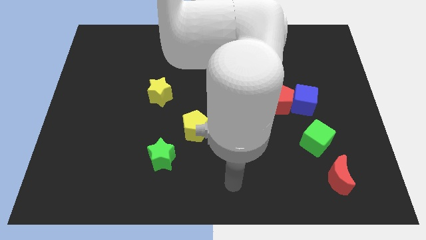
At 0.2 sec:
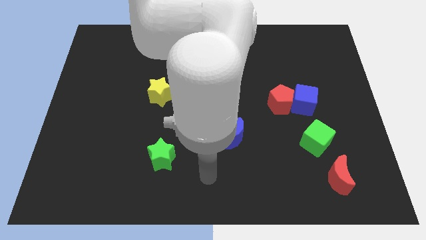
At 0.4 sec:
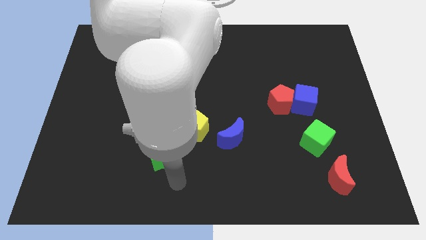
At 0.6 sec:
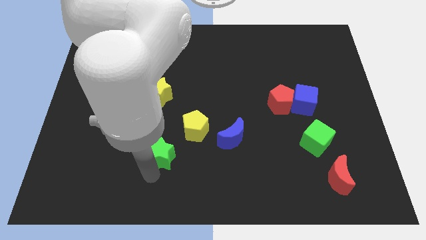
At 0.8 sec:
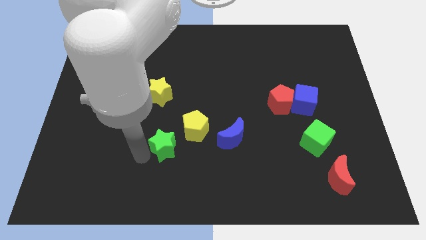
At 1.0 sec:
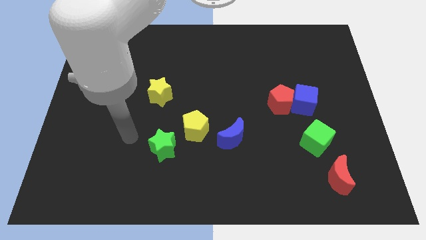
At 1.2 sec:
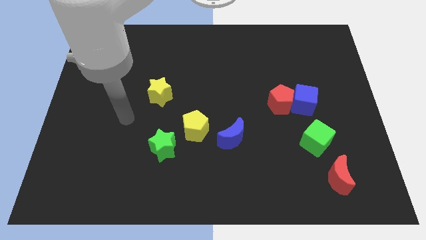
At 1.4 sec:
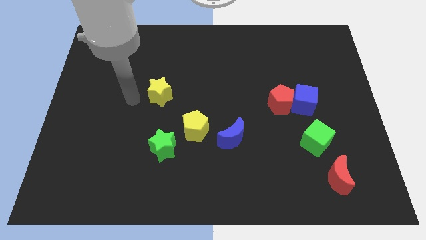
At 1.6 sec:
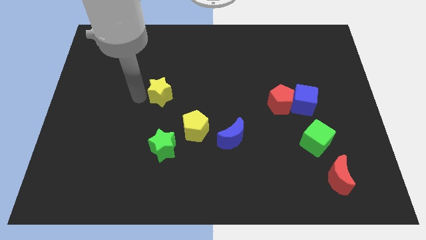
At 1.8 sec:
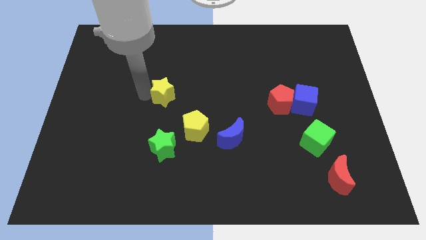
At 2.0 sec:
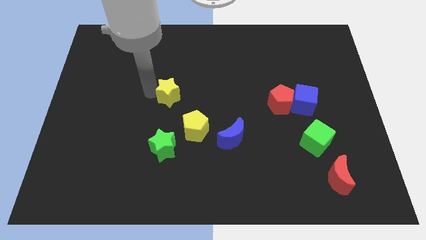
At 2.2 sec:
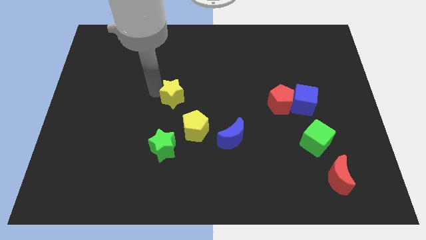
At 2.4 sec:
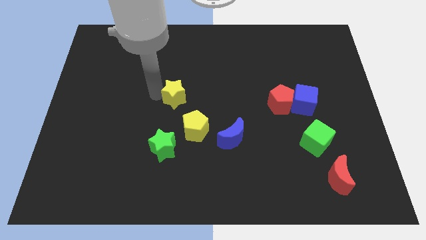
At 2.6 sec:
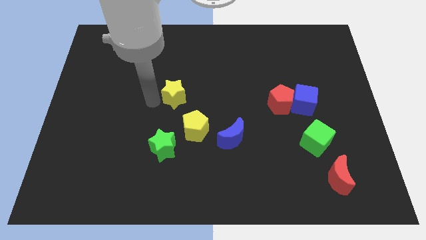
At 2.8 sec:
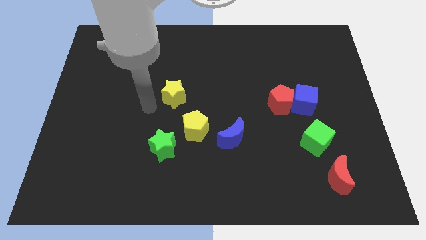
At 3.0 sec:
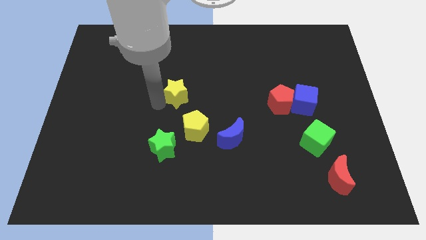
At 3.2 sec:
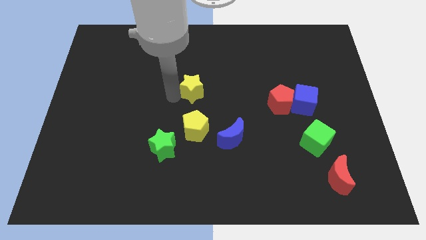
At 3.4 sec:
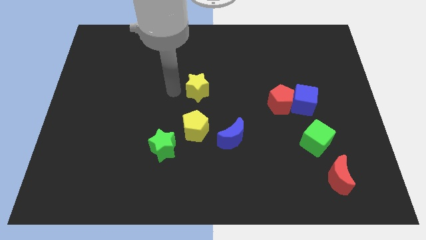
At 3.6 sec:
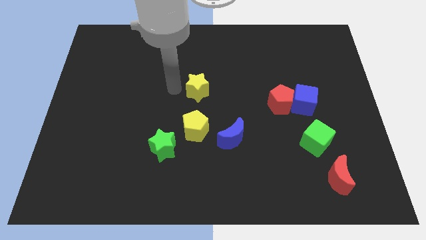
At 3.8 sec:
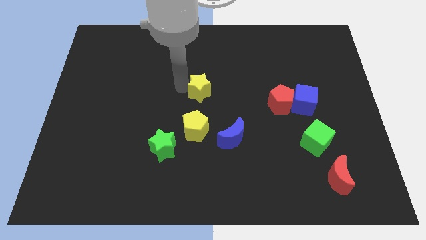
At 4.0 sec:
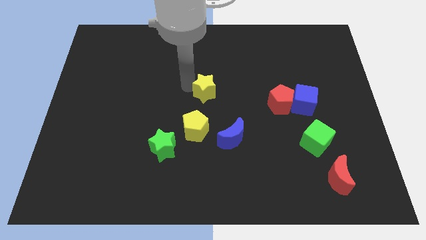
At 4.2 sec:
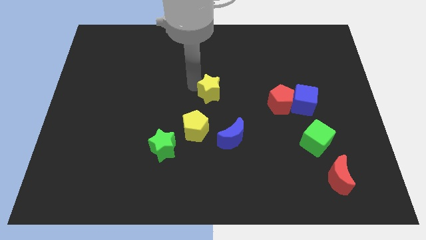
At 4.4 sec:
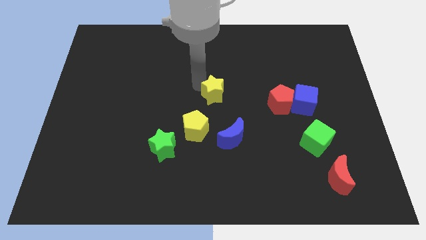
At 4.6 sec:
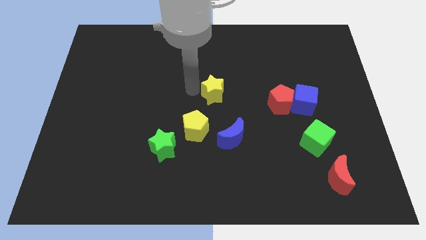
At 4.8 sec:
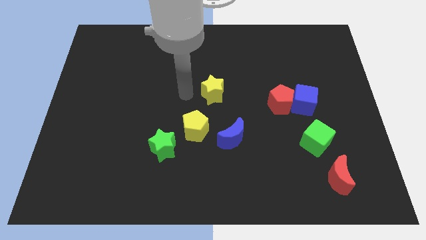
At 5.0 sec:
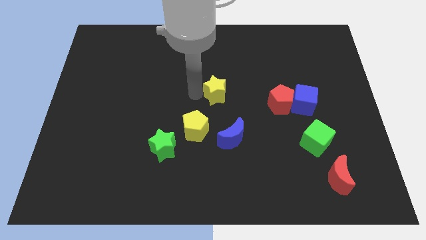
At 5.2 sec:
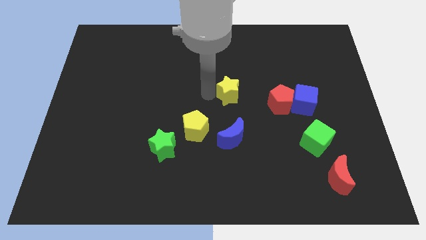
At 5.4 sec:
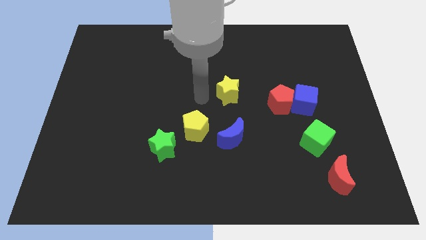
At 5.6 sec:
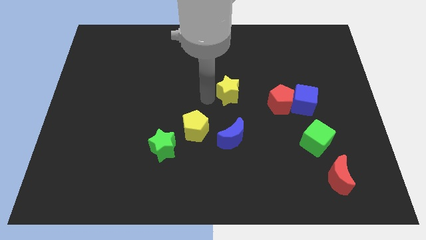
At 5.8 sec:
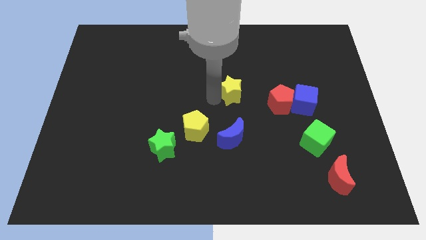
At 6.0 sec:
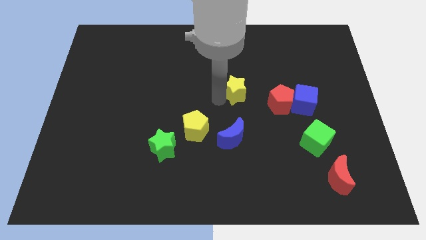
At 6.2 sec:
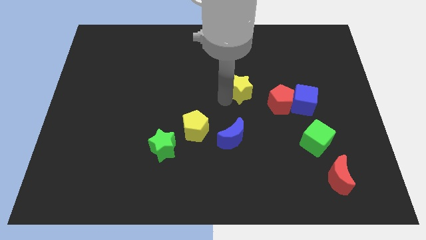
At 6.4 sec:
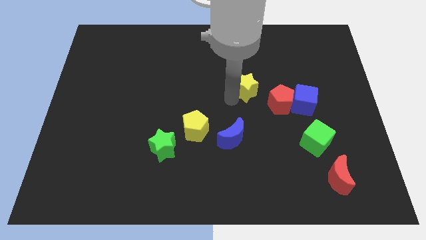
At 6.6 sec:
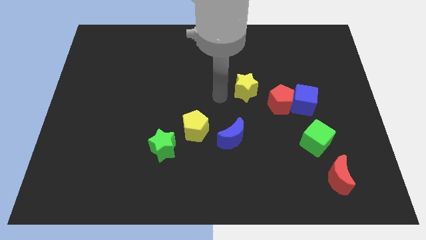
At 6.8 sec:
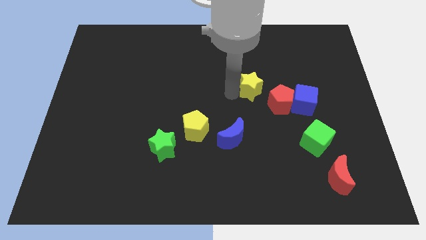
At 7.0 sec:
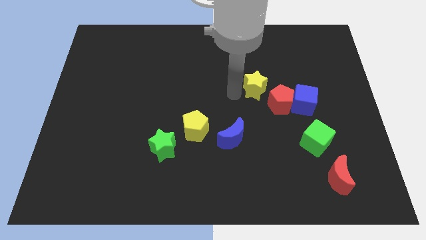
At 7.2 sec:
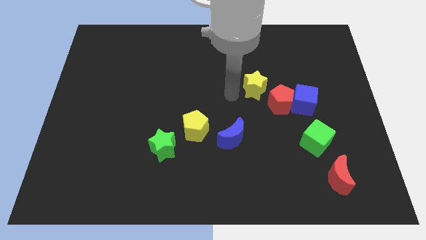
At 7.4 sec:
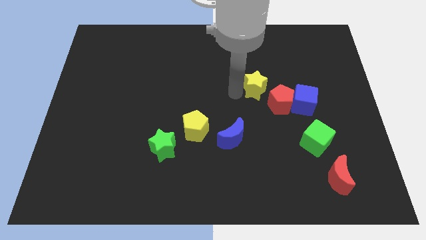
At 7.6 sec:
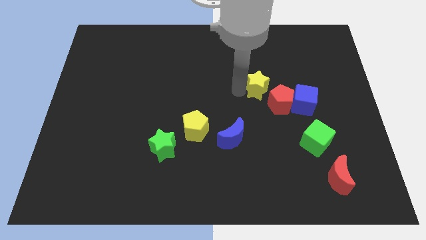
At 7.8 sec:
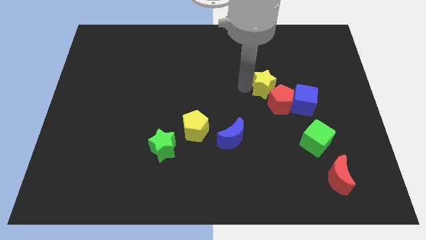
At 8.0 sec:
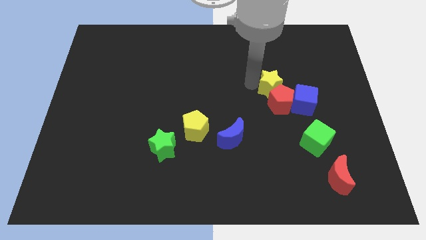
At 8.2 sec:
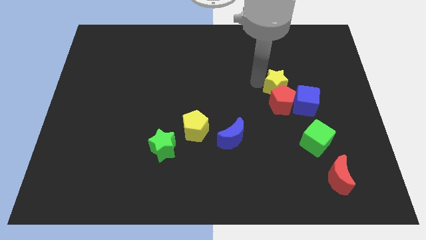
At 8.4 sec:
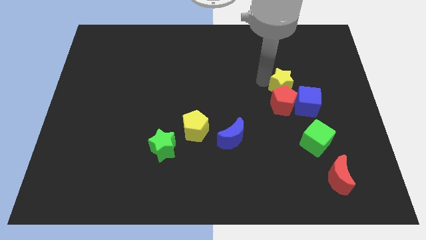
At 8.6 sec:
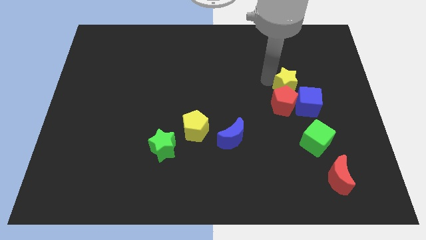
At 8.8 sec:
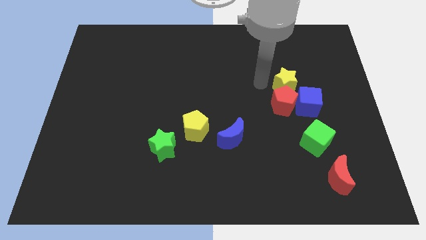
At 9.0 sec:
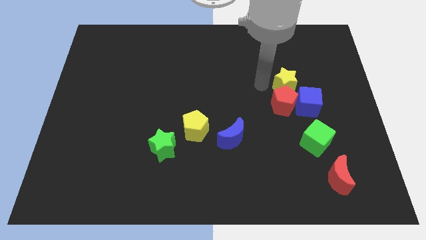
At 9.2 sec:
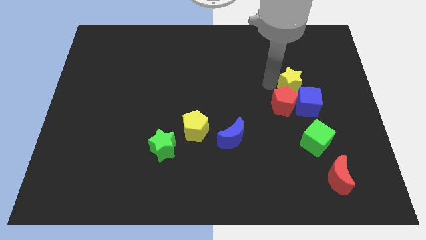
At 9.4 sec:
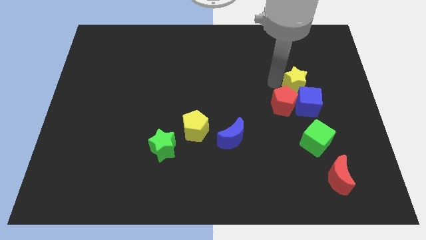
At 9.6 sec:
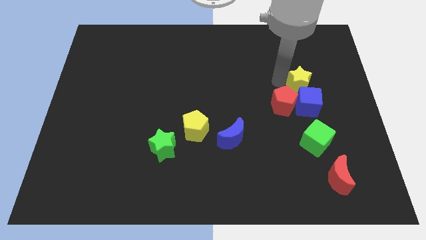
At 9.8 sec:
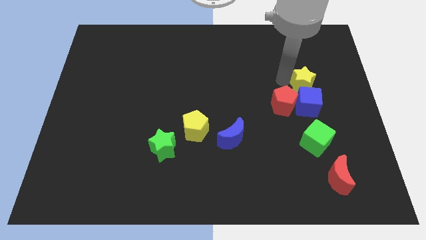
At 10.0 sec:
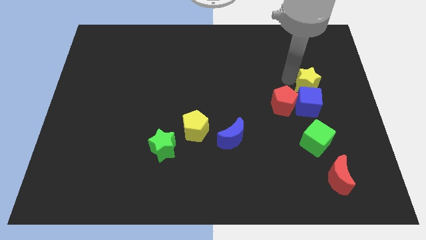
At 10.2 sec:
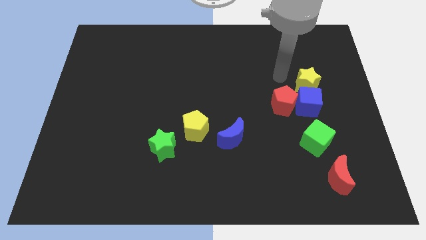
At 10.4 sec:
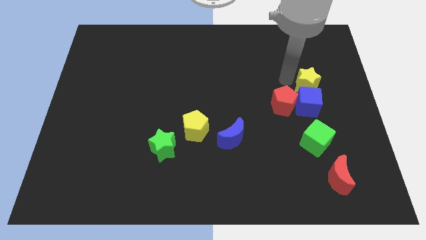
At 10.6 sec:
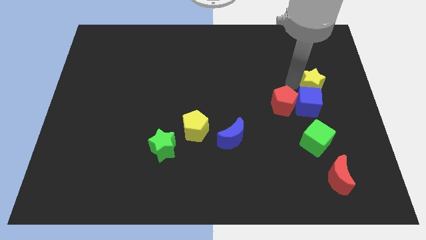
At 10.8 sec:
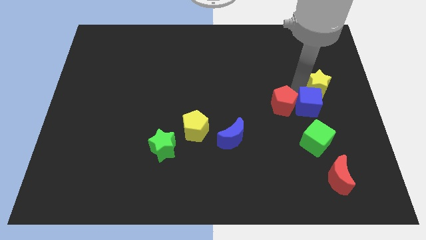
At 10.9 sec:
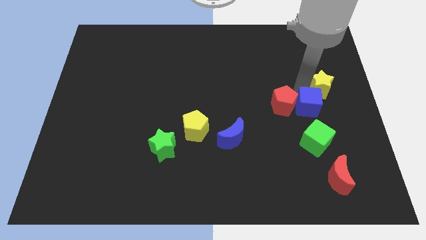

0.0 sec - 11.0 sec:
slide the yellow star to the center right

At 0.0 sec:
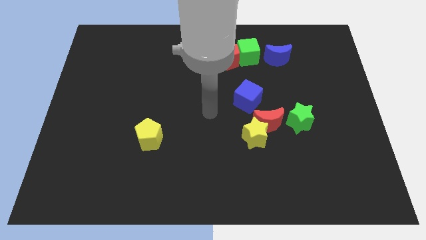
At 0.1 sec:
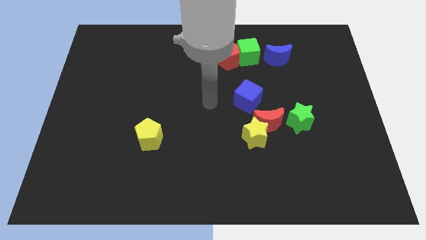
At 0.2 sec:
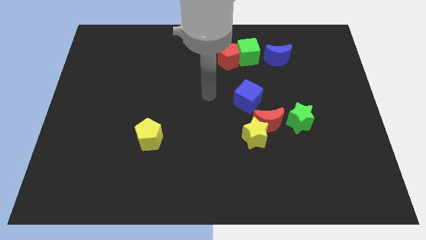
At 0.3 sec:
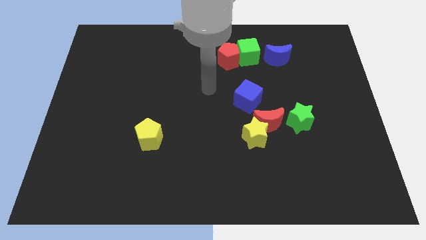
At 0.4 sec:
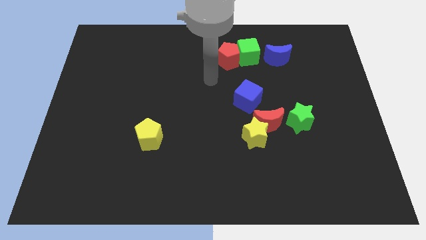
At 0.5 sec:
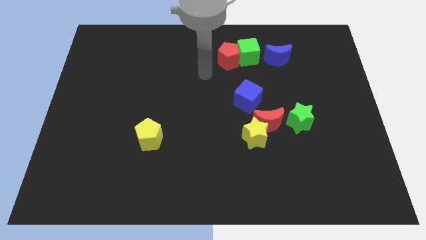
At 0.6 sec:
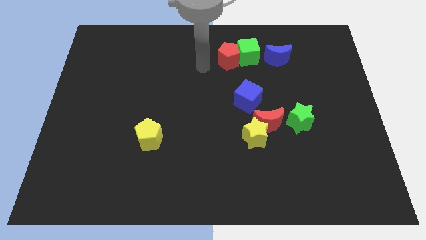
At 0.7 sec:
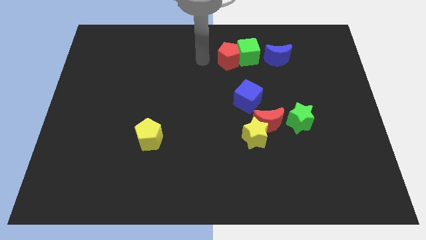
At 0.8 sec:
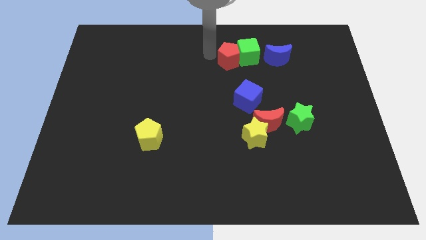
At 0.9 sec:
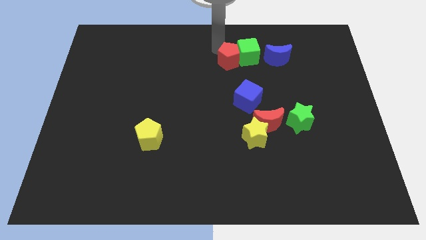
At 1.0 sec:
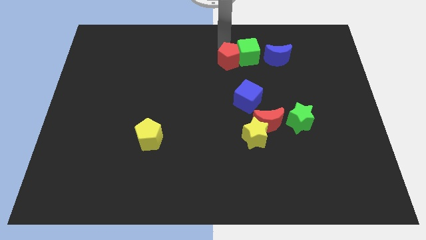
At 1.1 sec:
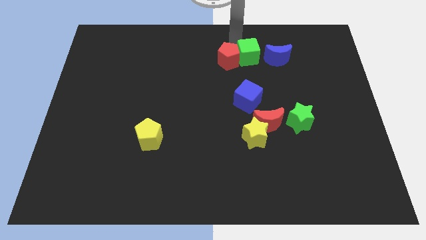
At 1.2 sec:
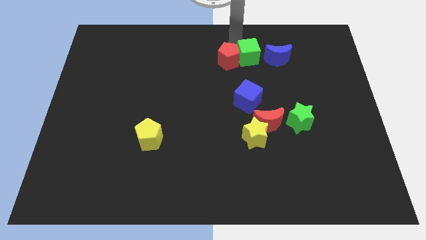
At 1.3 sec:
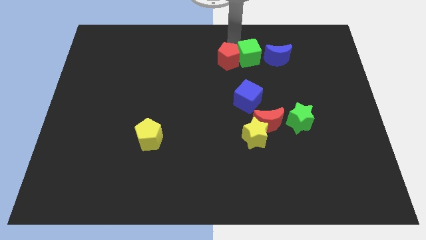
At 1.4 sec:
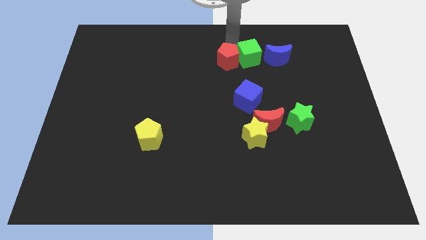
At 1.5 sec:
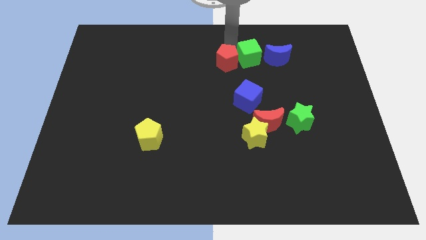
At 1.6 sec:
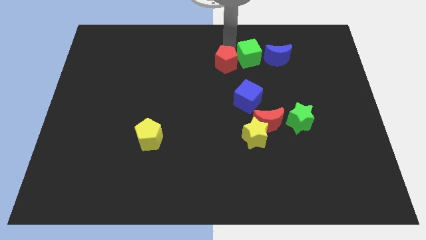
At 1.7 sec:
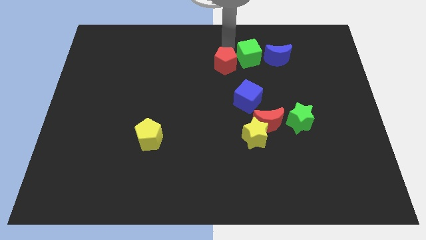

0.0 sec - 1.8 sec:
move the red pentagon to the middle of the board
